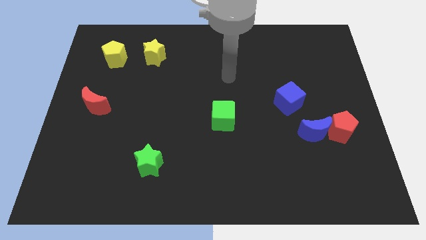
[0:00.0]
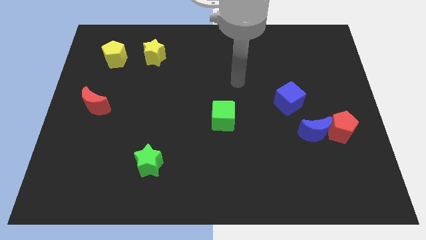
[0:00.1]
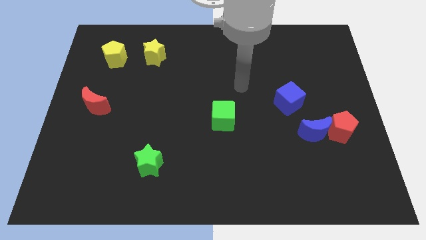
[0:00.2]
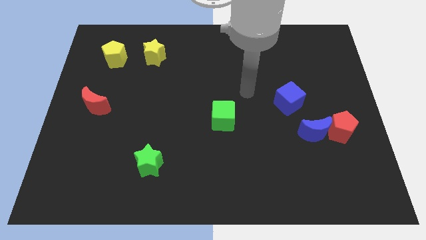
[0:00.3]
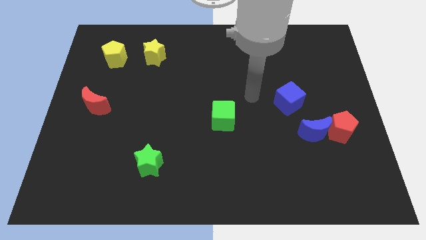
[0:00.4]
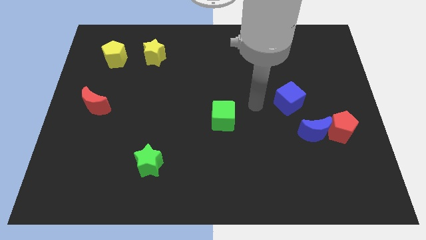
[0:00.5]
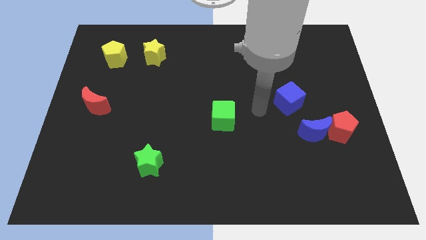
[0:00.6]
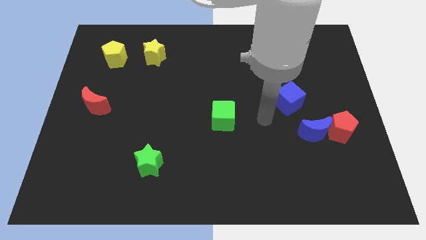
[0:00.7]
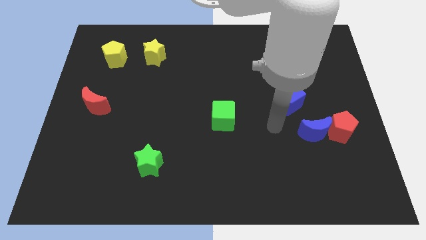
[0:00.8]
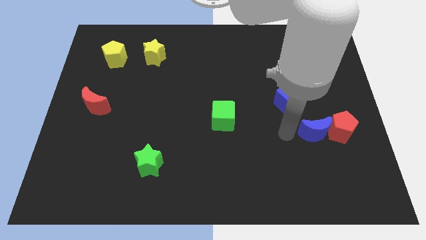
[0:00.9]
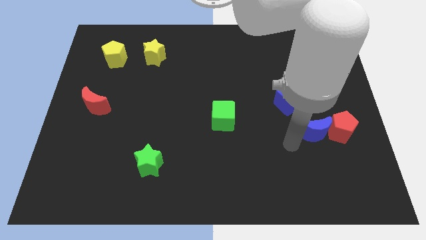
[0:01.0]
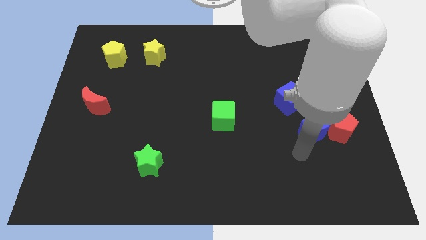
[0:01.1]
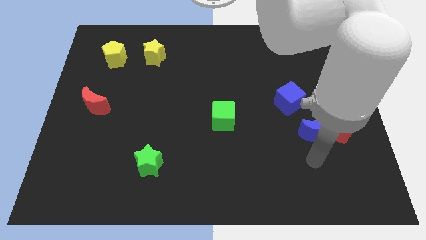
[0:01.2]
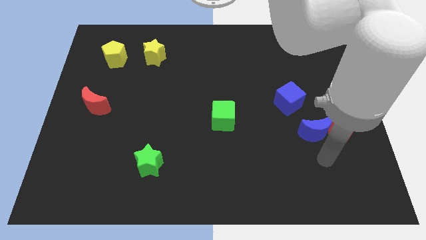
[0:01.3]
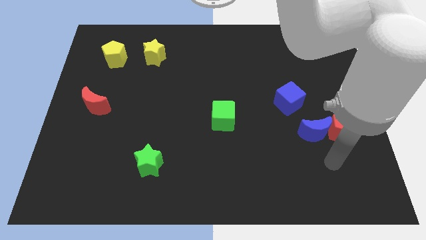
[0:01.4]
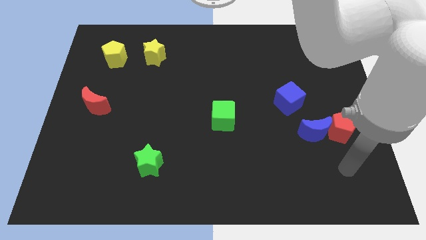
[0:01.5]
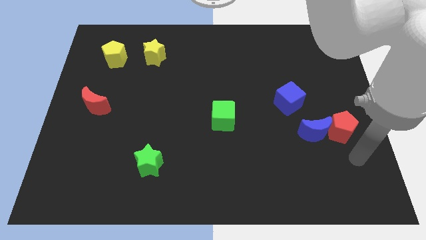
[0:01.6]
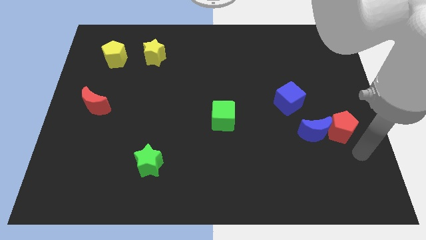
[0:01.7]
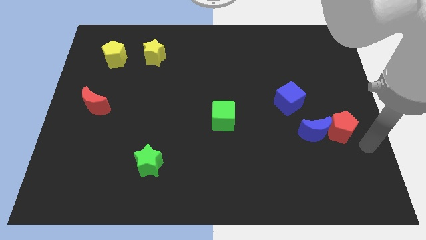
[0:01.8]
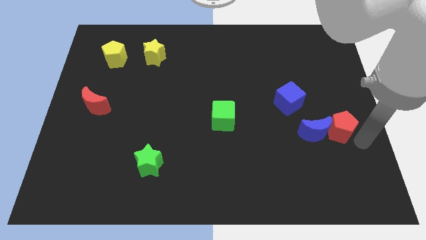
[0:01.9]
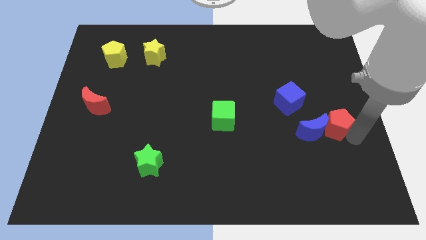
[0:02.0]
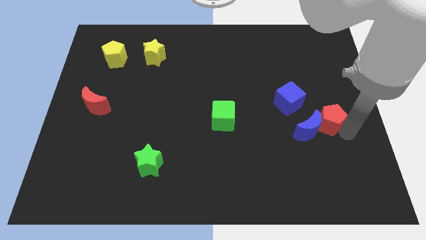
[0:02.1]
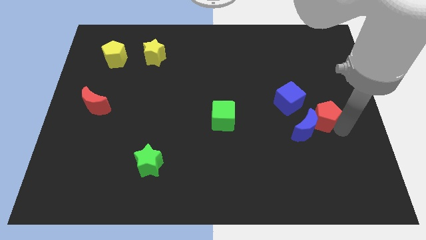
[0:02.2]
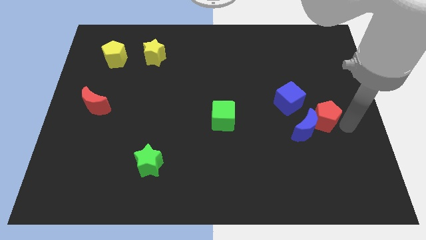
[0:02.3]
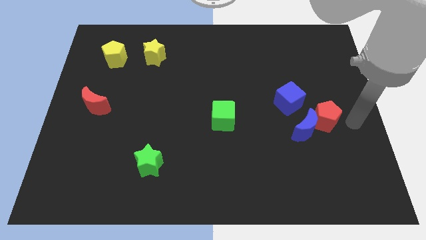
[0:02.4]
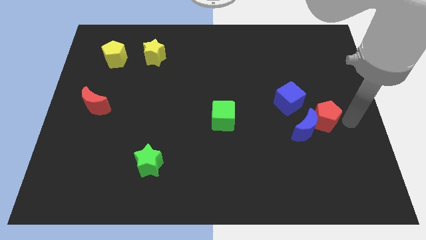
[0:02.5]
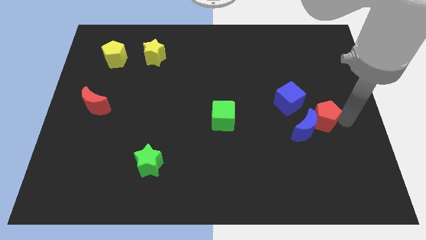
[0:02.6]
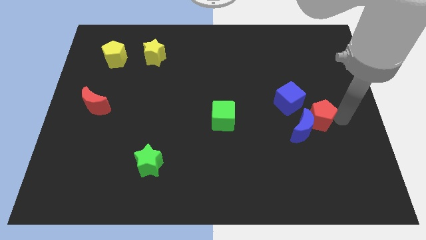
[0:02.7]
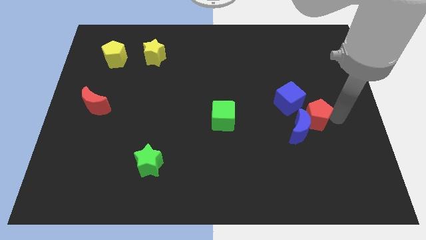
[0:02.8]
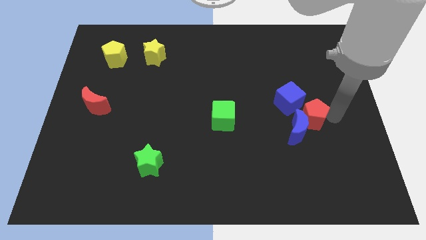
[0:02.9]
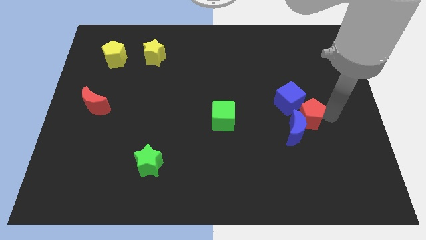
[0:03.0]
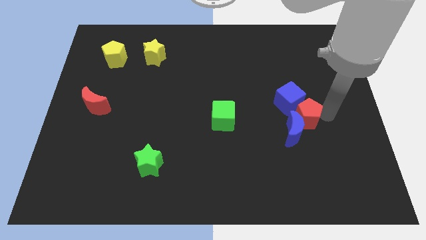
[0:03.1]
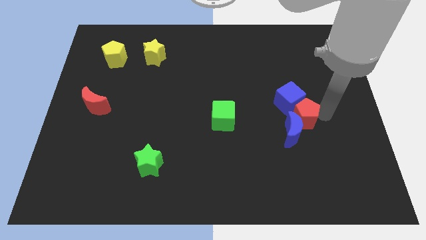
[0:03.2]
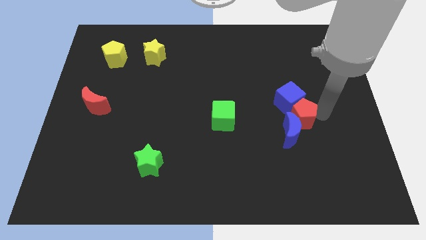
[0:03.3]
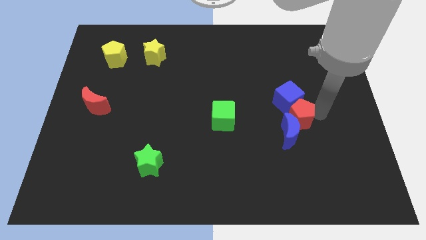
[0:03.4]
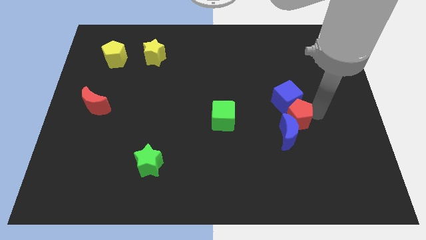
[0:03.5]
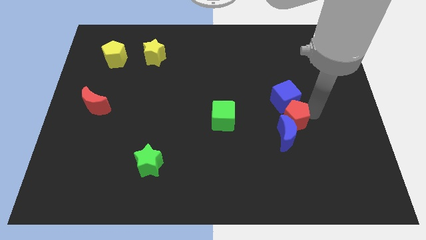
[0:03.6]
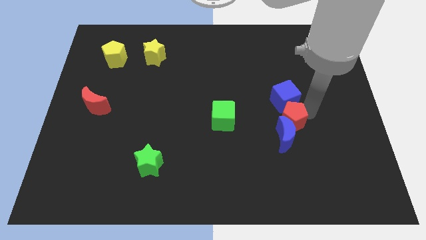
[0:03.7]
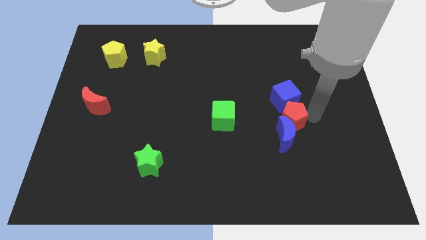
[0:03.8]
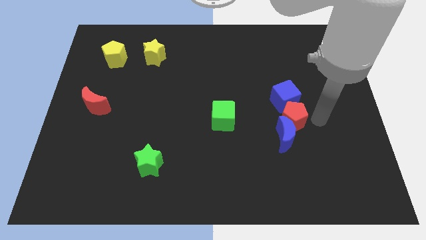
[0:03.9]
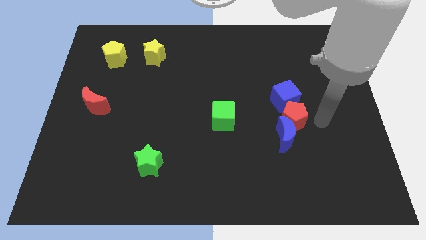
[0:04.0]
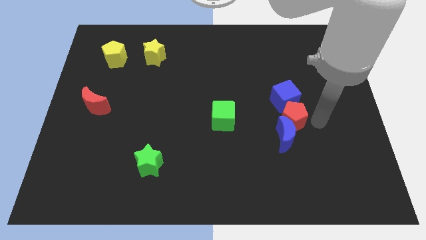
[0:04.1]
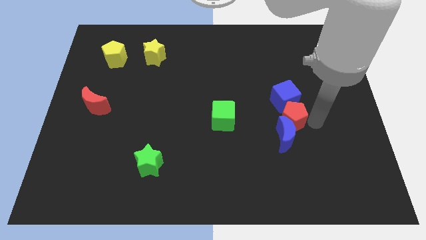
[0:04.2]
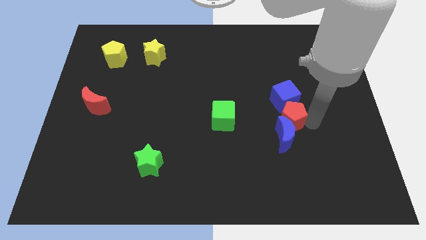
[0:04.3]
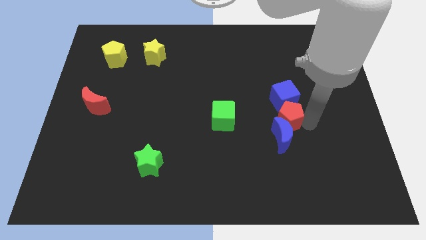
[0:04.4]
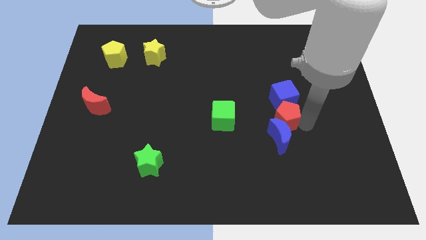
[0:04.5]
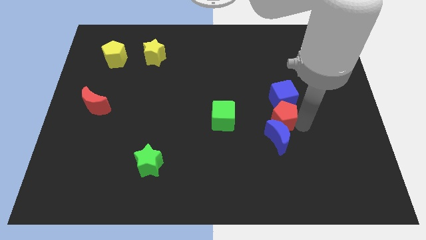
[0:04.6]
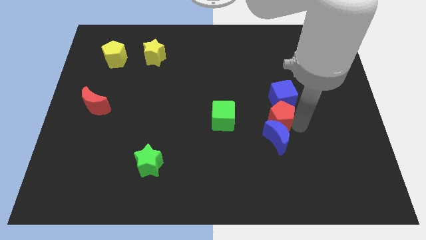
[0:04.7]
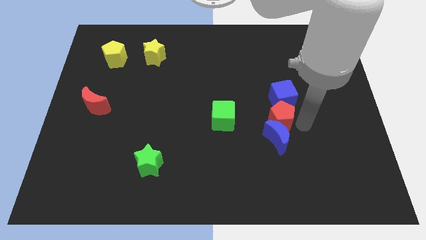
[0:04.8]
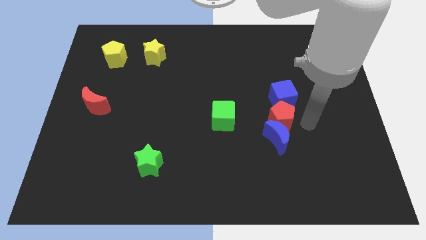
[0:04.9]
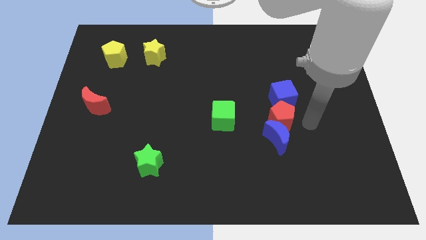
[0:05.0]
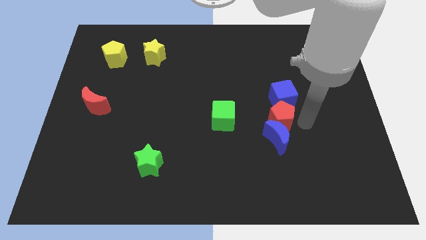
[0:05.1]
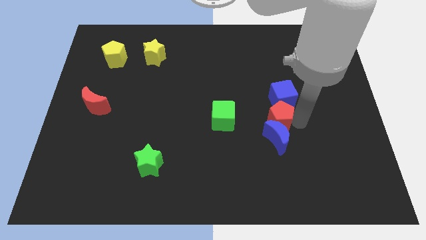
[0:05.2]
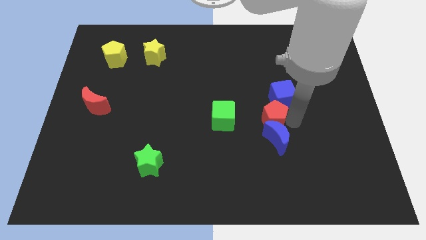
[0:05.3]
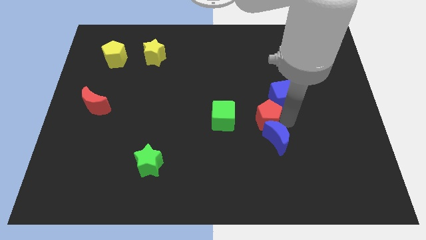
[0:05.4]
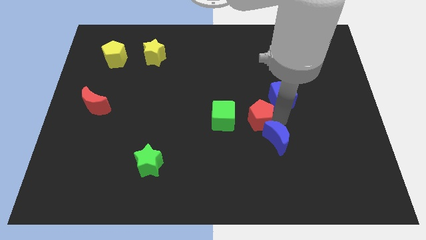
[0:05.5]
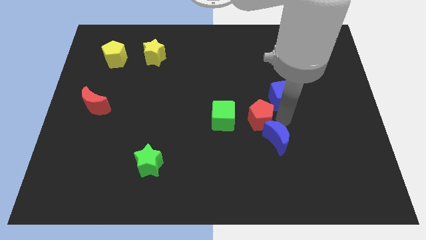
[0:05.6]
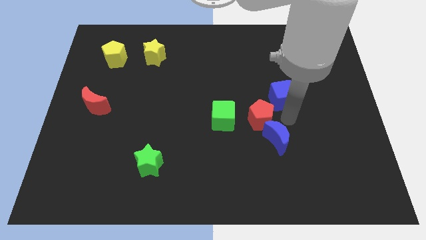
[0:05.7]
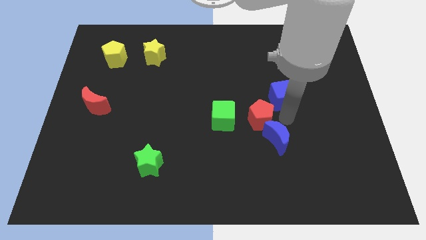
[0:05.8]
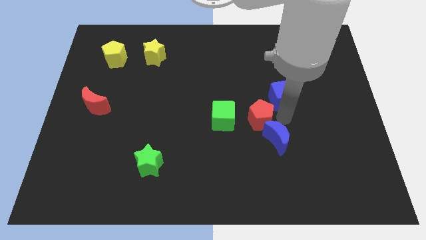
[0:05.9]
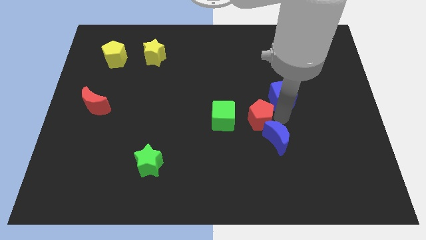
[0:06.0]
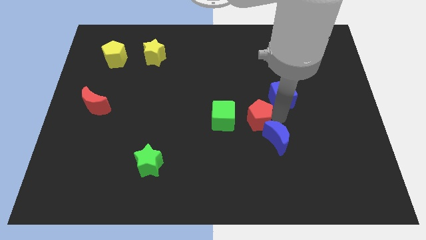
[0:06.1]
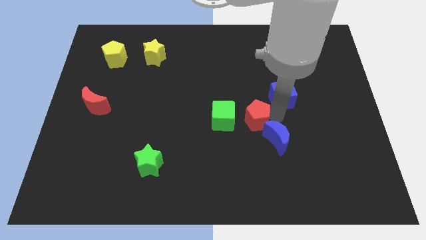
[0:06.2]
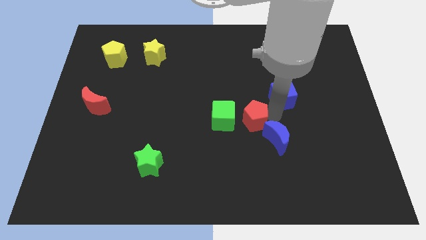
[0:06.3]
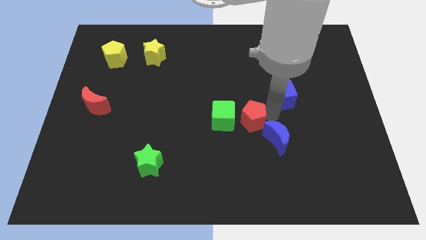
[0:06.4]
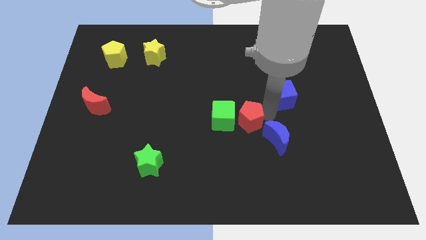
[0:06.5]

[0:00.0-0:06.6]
put the red pentagon towards the green cube
